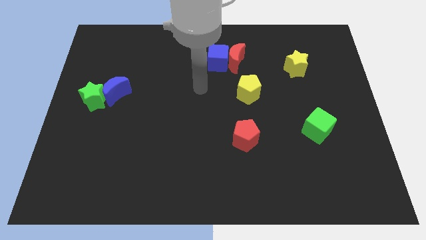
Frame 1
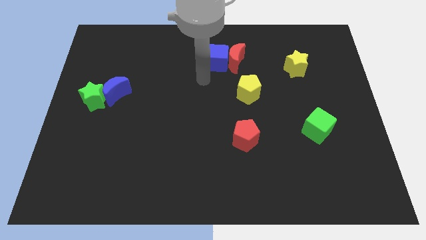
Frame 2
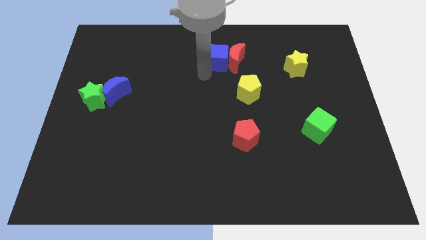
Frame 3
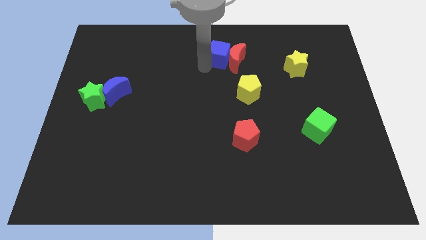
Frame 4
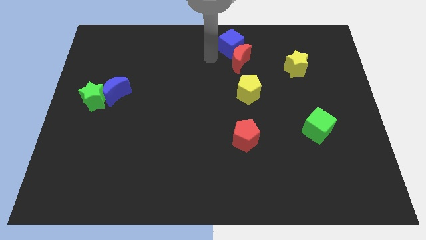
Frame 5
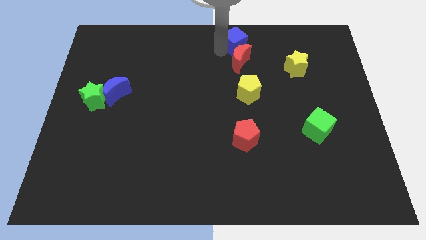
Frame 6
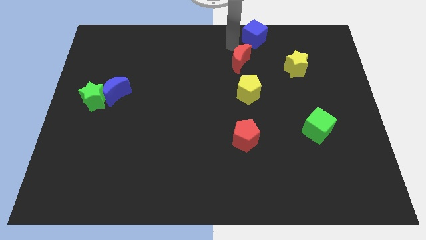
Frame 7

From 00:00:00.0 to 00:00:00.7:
separate the red moon from the blue cube

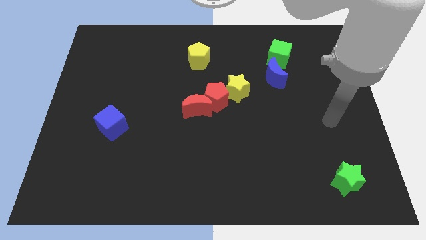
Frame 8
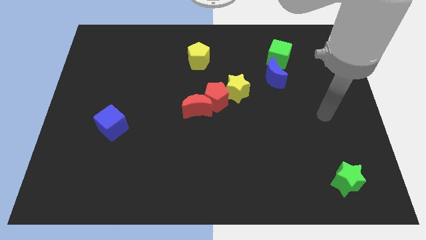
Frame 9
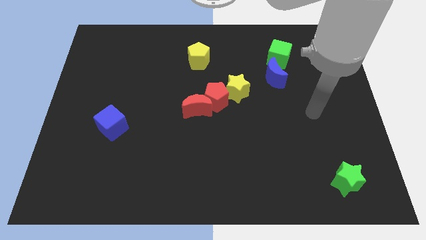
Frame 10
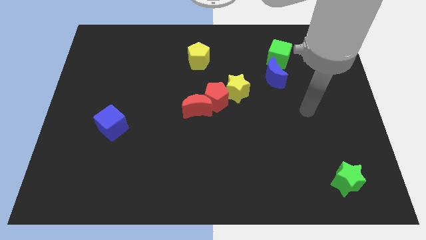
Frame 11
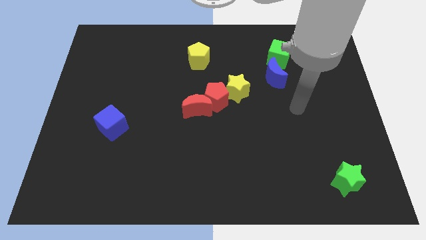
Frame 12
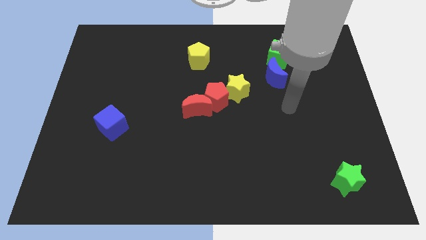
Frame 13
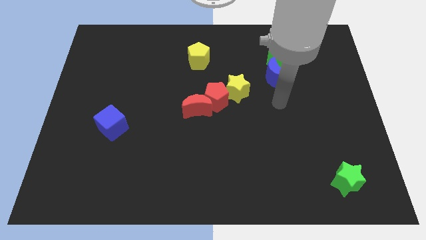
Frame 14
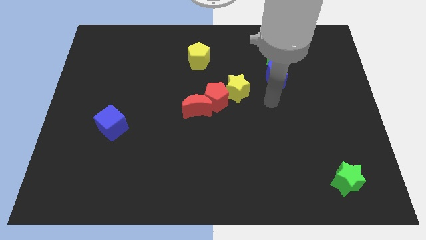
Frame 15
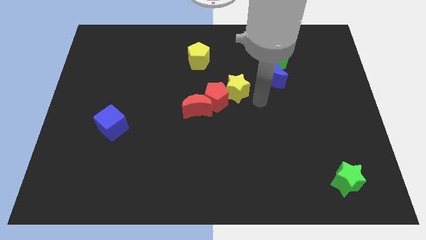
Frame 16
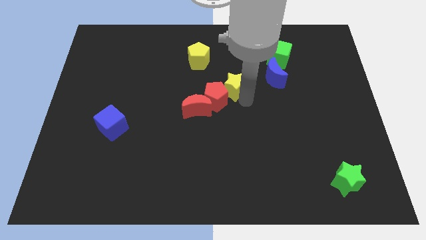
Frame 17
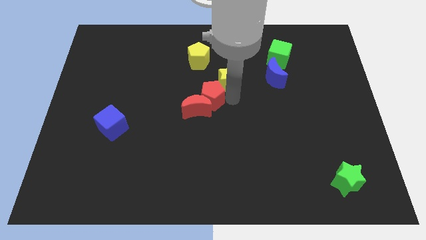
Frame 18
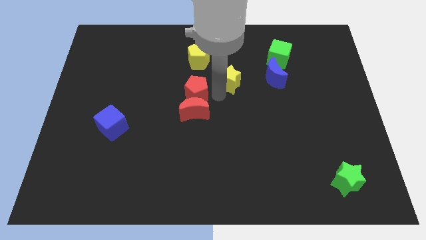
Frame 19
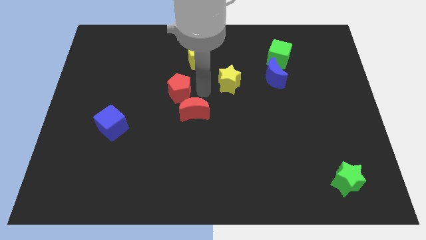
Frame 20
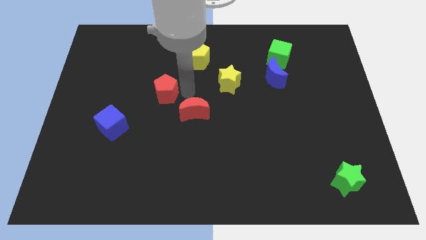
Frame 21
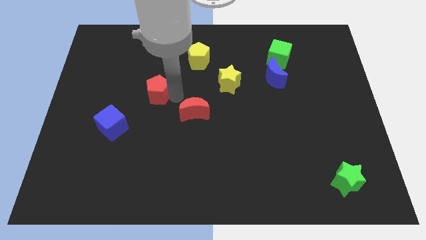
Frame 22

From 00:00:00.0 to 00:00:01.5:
separate the red moon from the red pentagon

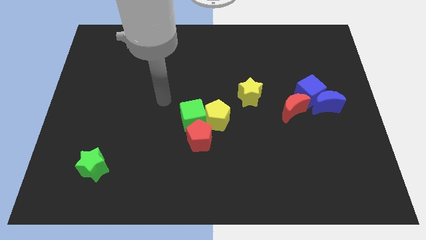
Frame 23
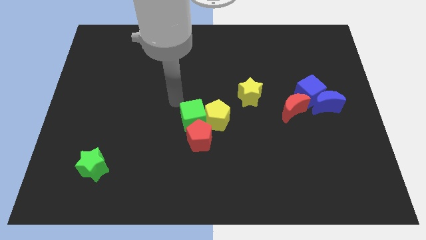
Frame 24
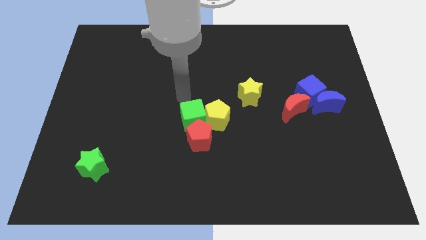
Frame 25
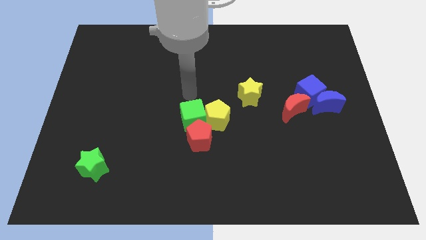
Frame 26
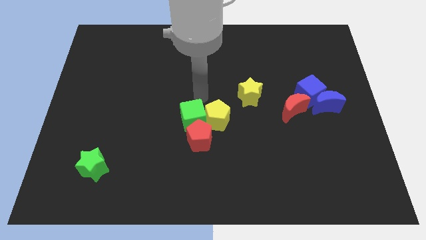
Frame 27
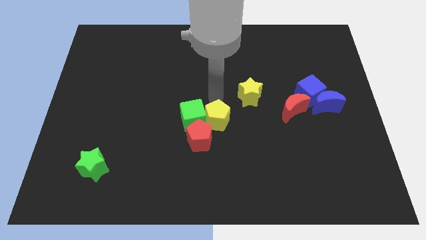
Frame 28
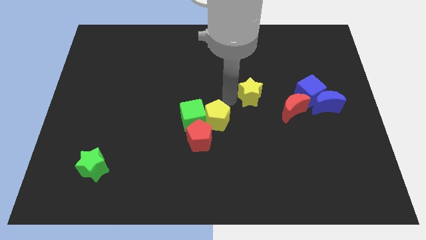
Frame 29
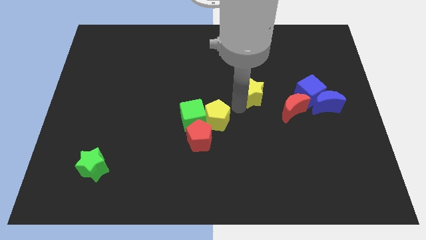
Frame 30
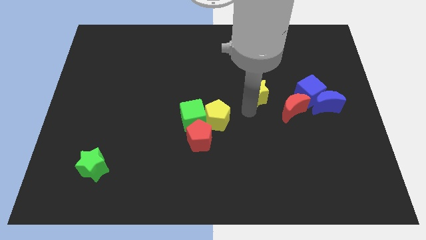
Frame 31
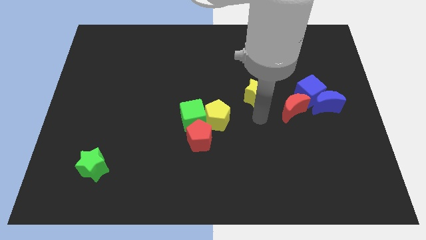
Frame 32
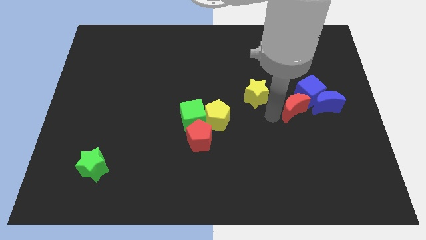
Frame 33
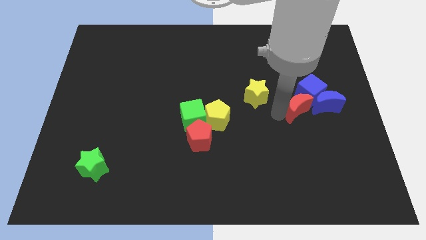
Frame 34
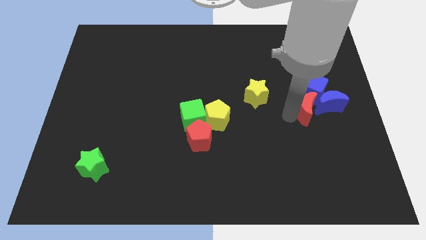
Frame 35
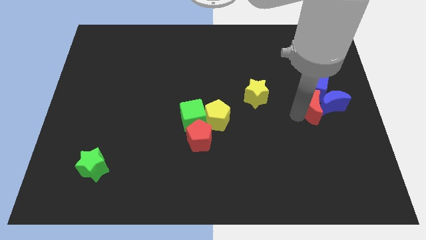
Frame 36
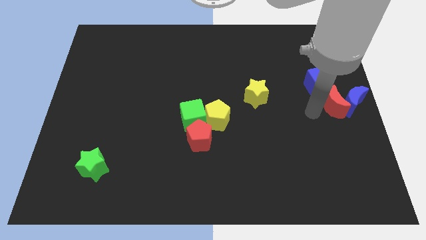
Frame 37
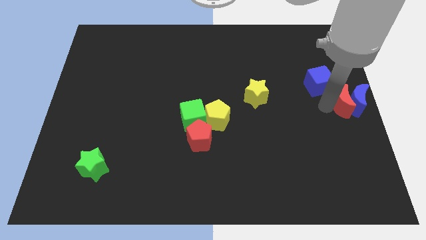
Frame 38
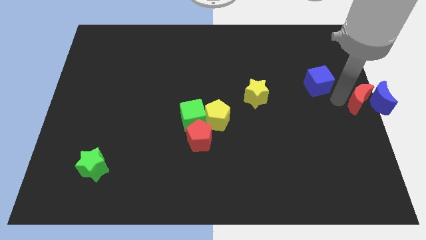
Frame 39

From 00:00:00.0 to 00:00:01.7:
separate the blue cube from the blue moon and red moon

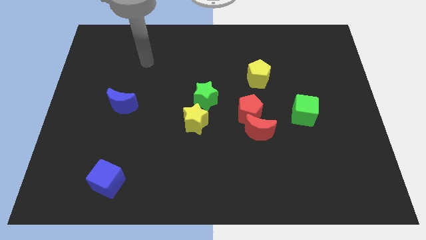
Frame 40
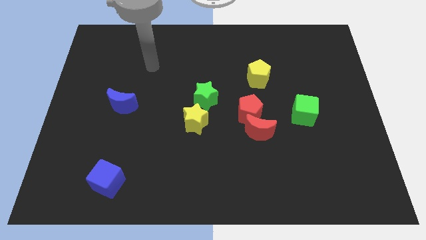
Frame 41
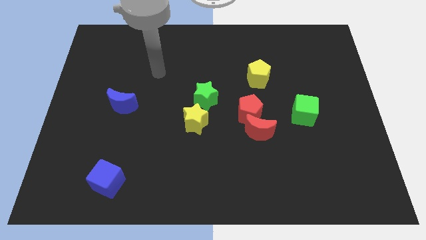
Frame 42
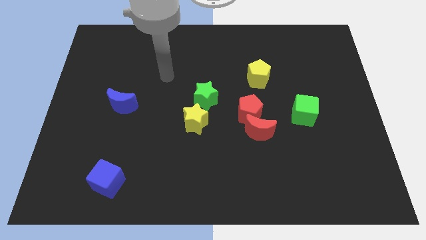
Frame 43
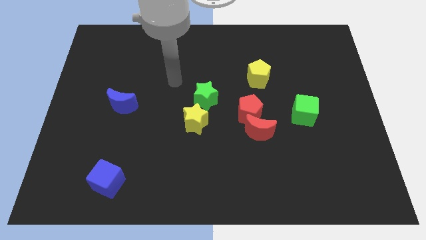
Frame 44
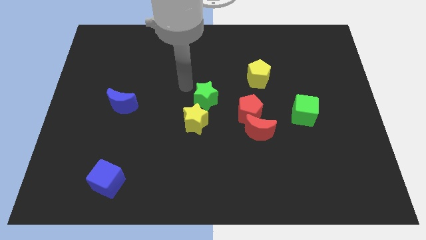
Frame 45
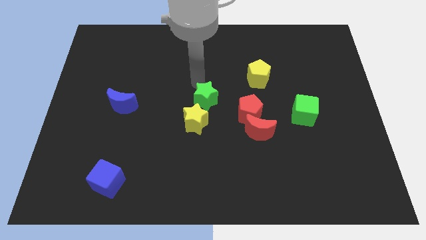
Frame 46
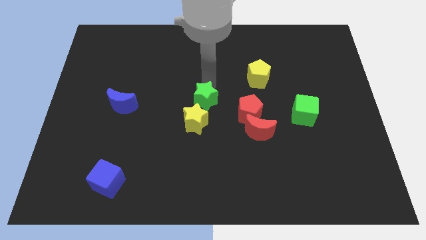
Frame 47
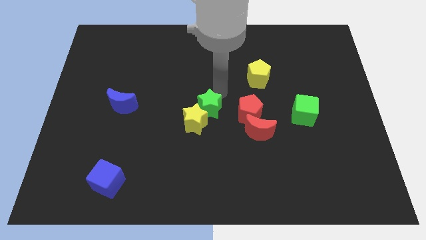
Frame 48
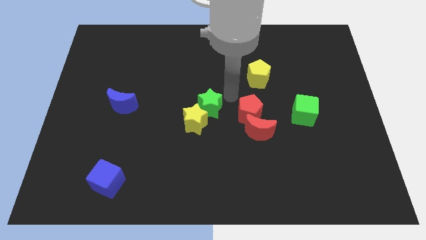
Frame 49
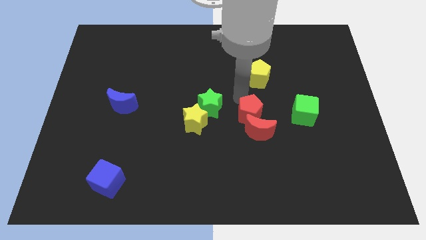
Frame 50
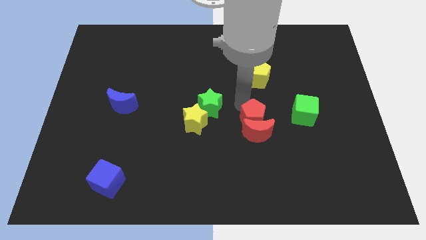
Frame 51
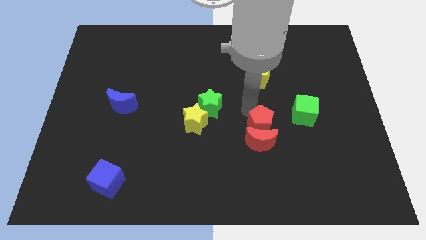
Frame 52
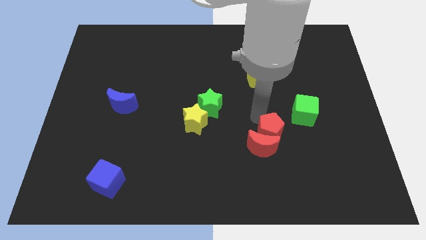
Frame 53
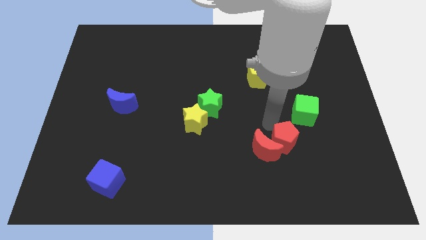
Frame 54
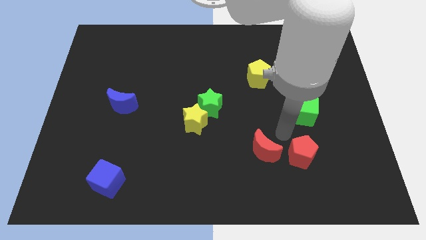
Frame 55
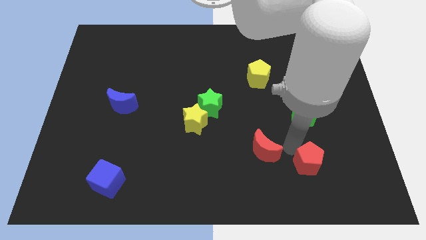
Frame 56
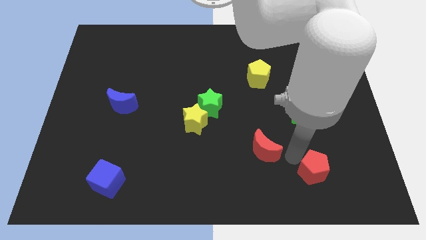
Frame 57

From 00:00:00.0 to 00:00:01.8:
move the red moon away from the red pentagon

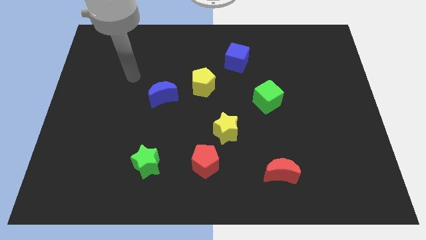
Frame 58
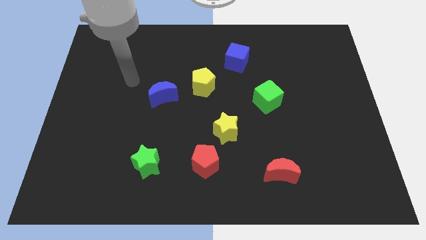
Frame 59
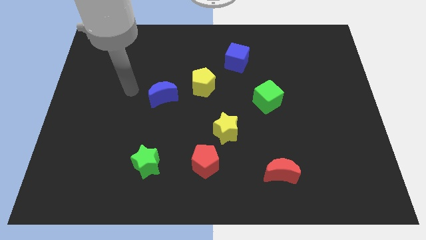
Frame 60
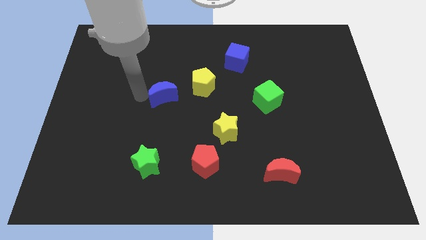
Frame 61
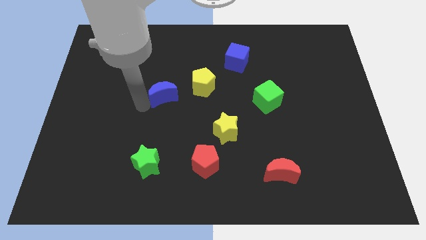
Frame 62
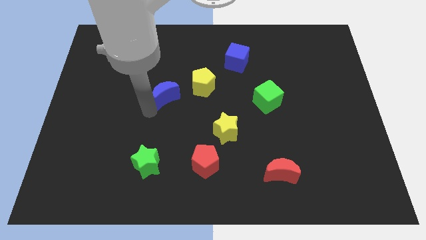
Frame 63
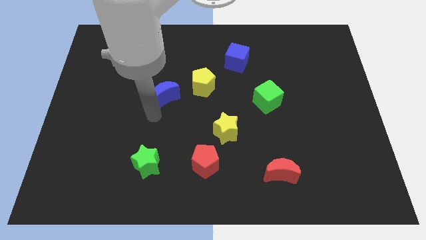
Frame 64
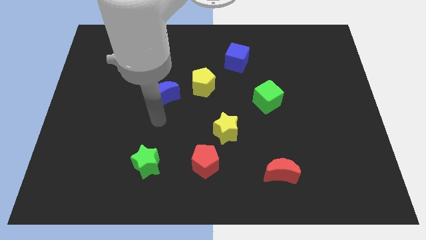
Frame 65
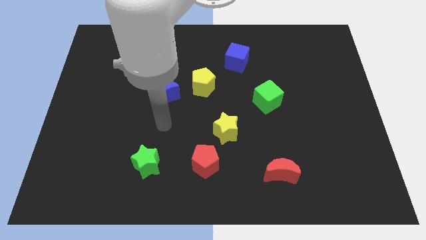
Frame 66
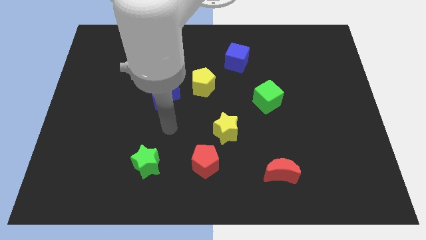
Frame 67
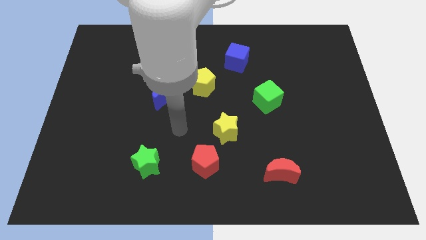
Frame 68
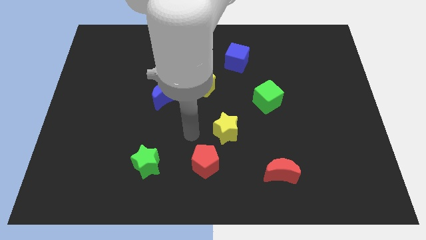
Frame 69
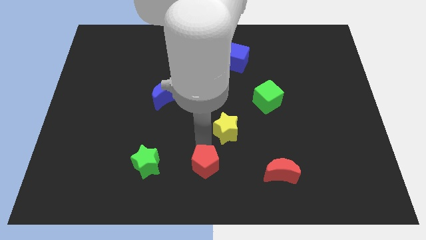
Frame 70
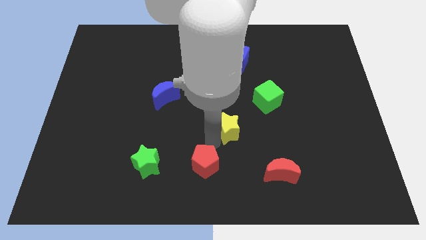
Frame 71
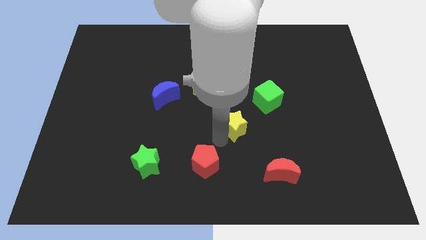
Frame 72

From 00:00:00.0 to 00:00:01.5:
move the red pentagon away from the yellow star

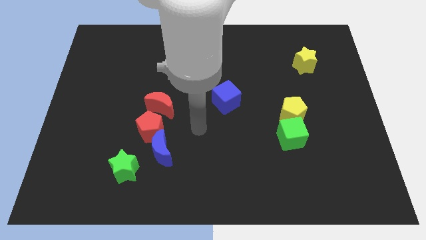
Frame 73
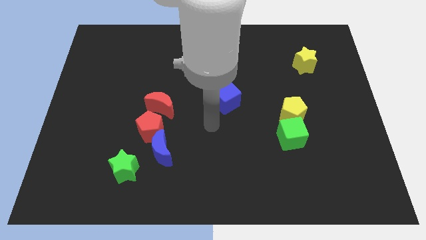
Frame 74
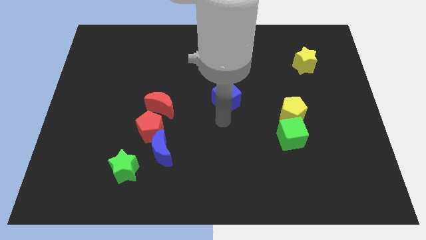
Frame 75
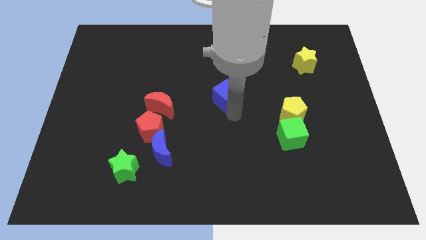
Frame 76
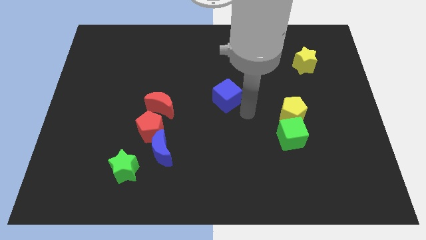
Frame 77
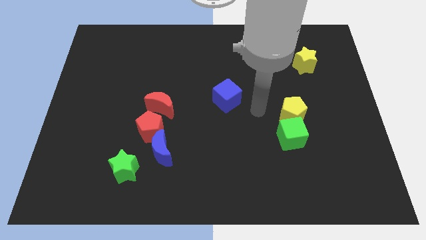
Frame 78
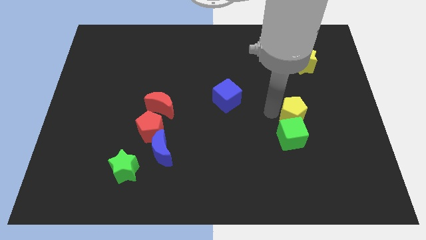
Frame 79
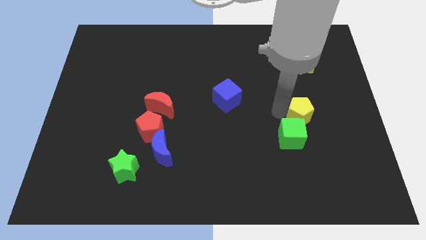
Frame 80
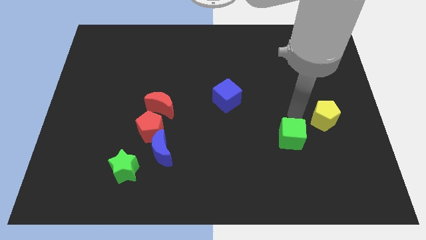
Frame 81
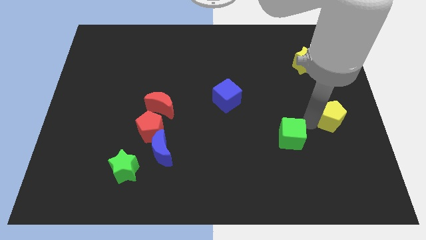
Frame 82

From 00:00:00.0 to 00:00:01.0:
pull the green cube apart from the yellow pentagon

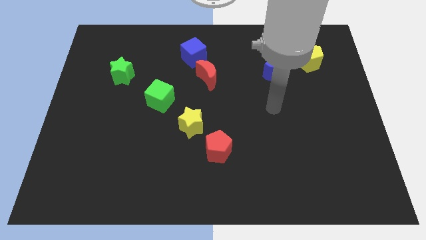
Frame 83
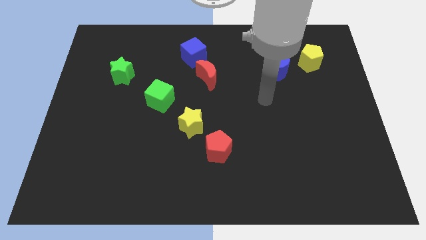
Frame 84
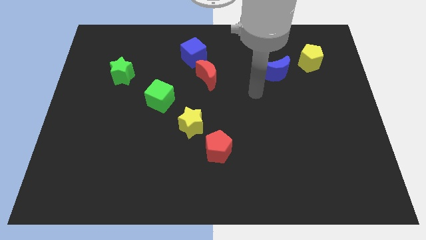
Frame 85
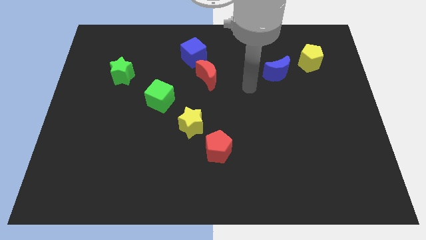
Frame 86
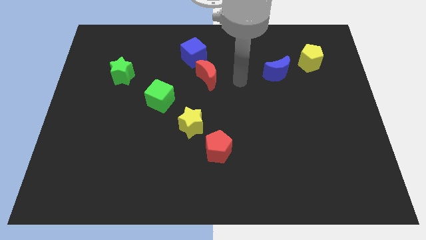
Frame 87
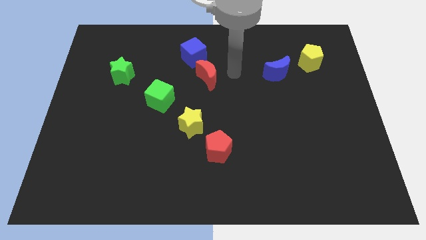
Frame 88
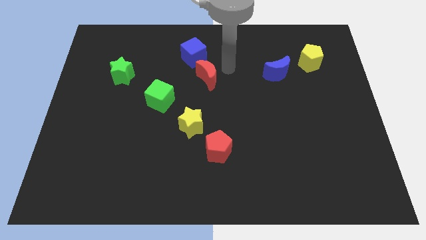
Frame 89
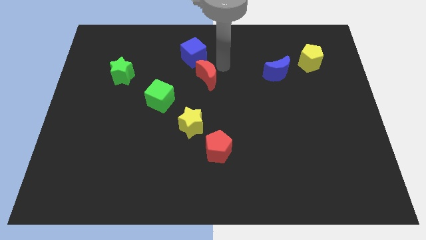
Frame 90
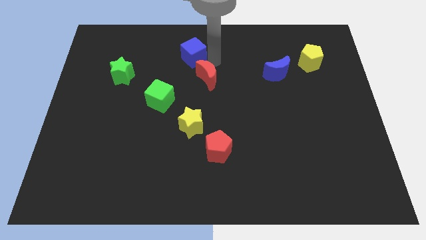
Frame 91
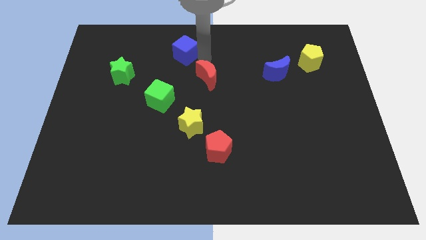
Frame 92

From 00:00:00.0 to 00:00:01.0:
pull the red moon apart from the blue cube
